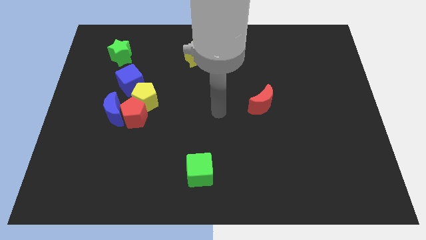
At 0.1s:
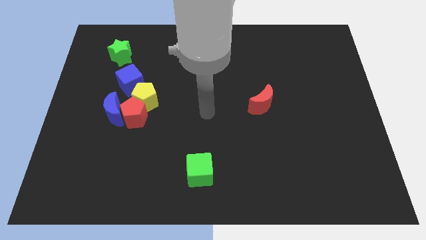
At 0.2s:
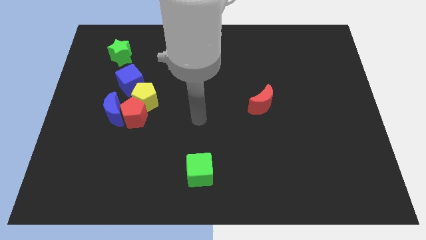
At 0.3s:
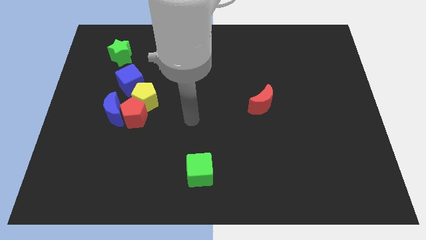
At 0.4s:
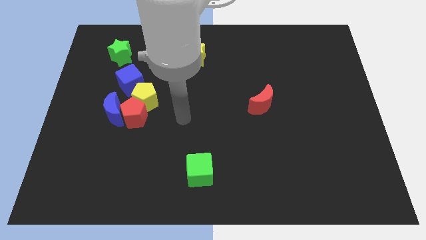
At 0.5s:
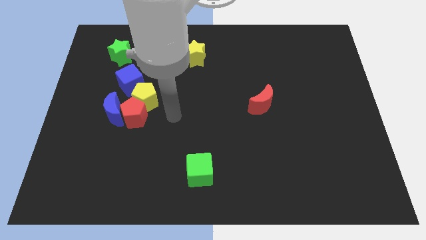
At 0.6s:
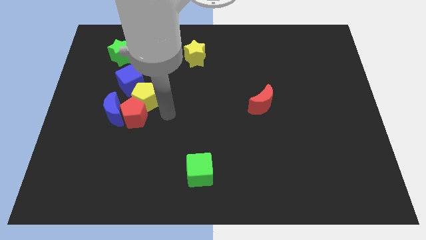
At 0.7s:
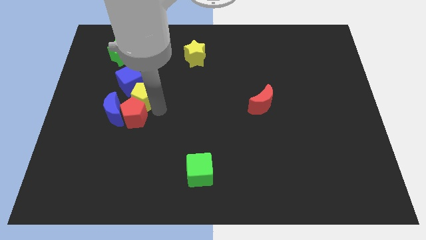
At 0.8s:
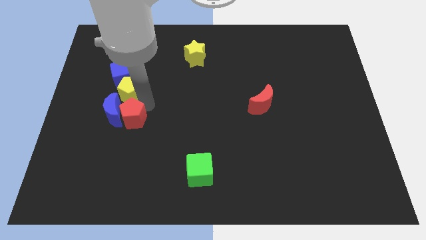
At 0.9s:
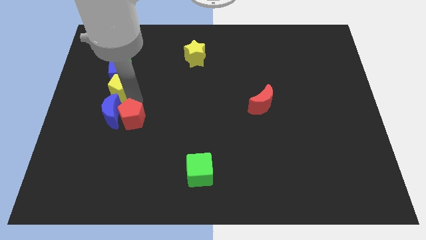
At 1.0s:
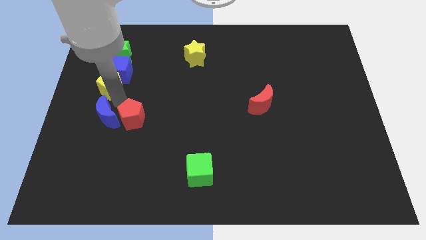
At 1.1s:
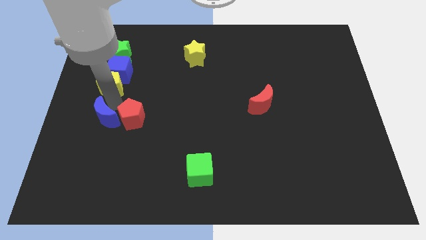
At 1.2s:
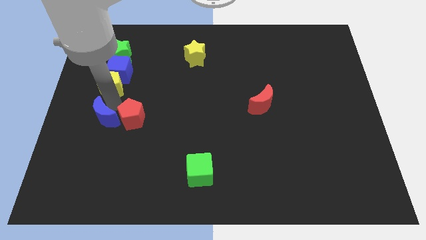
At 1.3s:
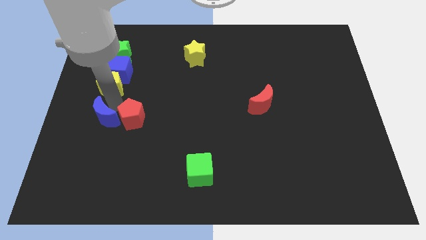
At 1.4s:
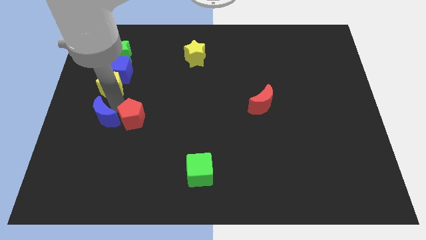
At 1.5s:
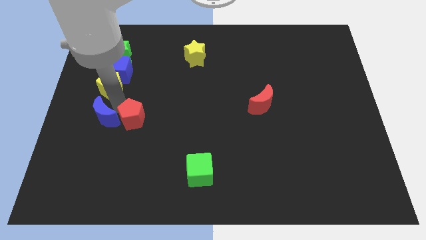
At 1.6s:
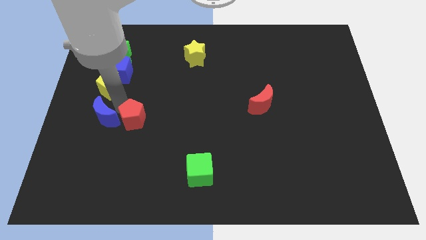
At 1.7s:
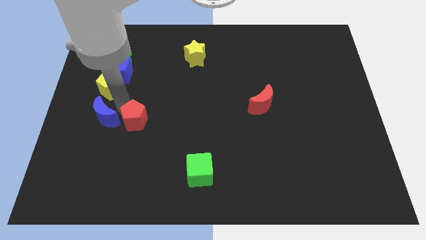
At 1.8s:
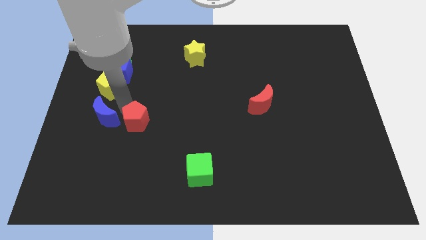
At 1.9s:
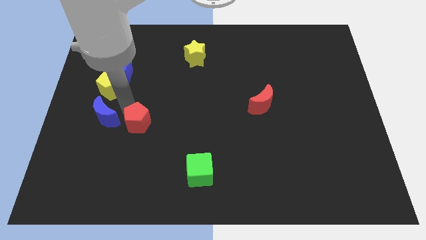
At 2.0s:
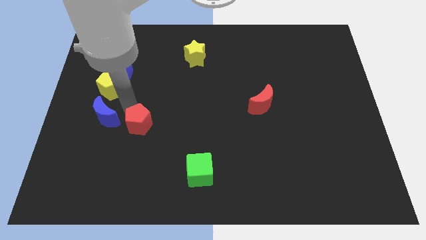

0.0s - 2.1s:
move the red pentagon away from the blue moon and yellow pentagon

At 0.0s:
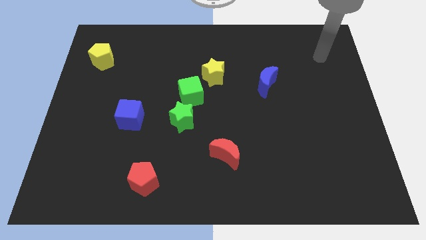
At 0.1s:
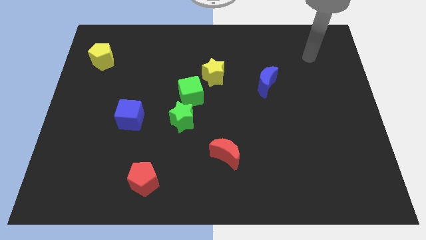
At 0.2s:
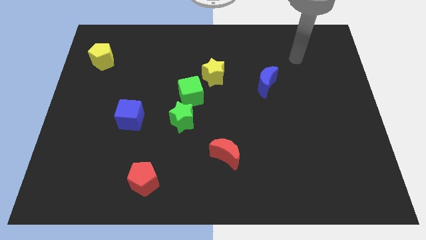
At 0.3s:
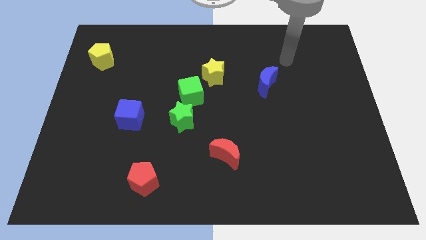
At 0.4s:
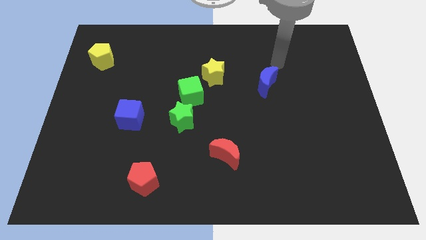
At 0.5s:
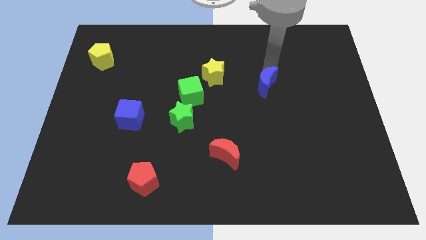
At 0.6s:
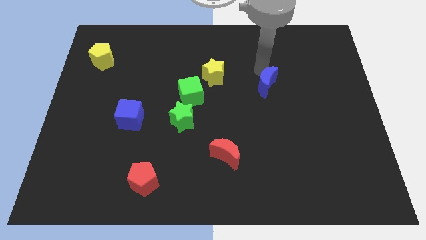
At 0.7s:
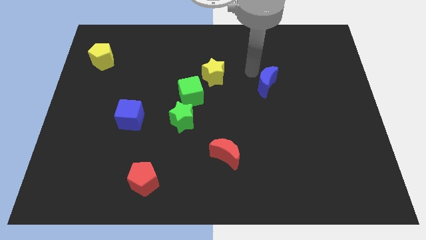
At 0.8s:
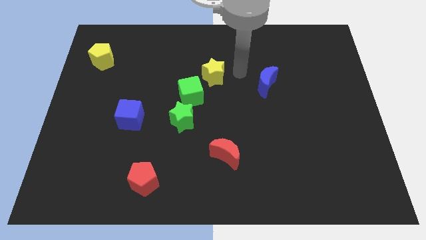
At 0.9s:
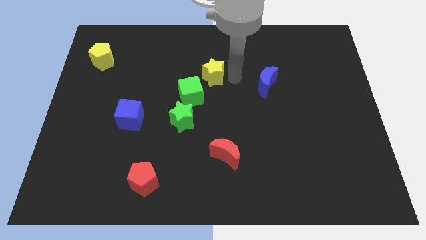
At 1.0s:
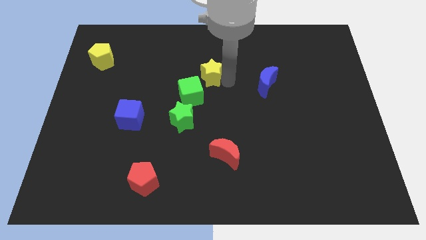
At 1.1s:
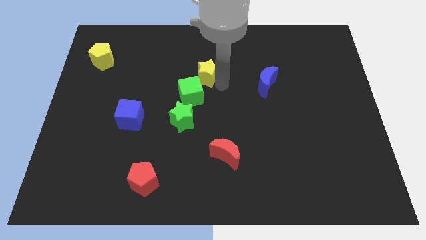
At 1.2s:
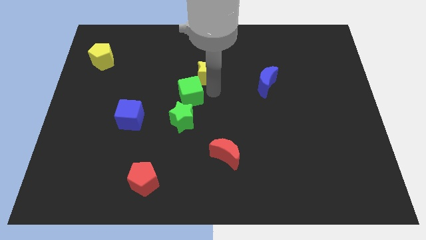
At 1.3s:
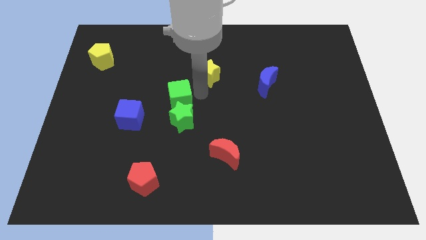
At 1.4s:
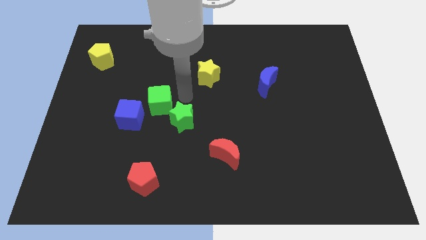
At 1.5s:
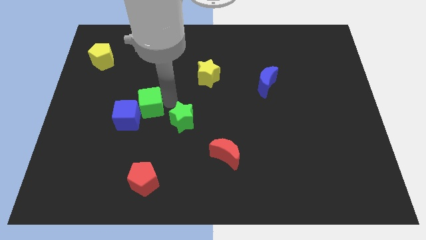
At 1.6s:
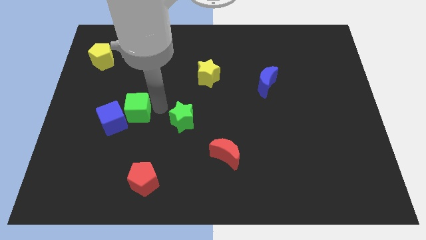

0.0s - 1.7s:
pull the green star apart from the green cube

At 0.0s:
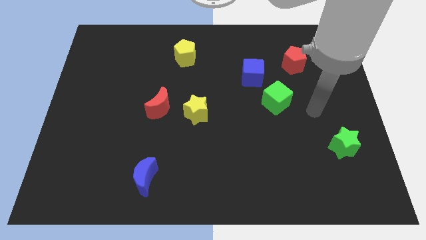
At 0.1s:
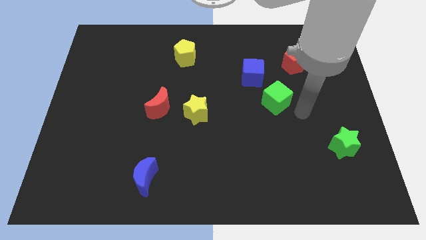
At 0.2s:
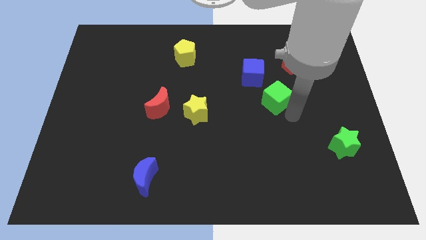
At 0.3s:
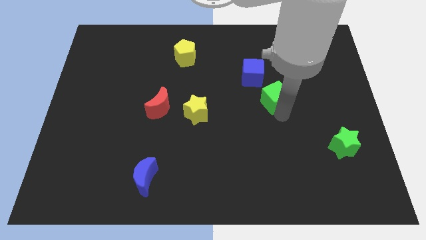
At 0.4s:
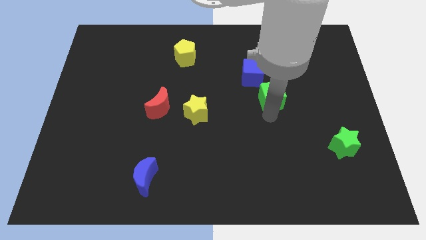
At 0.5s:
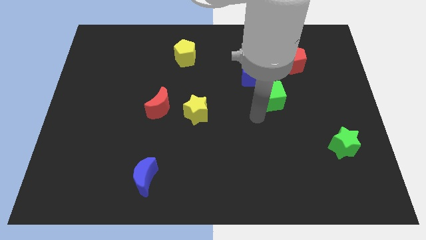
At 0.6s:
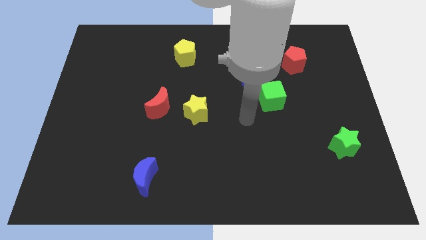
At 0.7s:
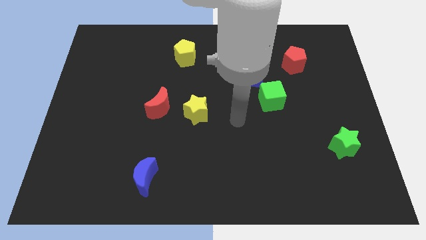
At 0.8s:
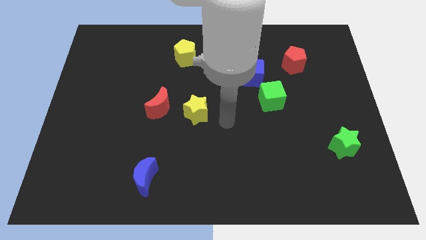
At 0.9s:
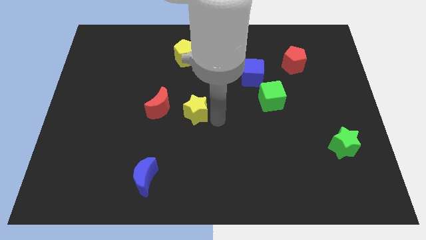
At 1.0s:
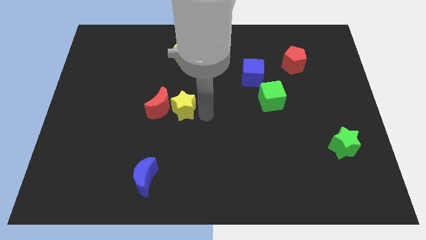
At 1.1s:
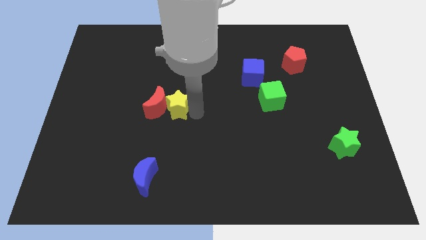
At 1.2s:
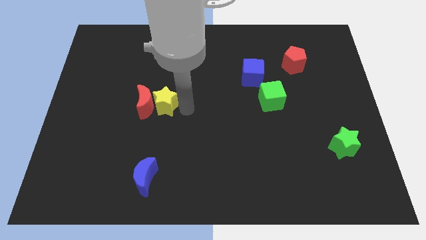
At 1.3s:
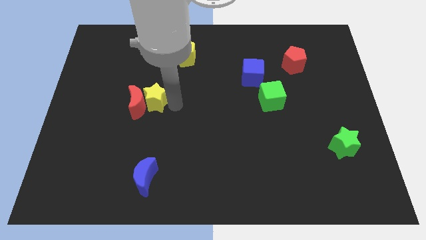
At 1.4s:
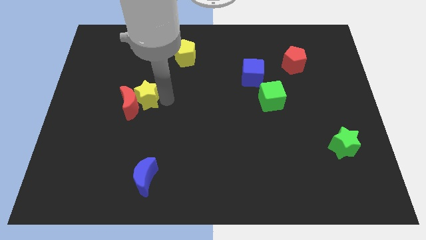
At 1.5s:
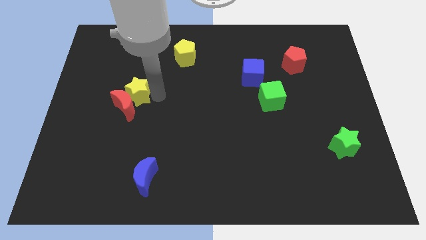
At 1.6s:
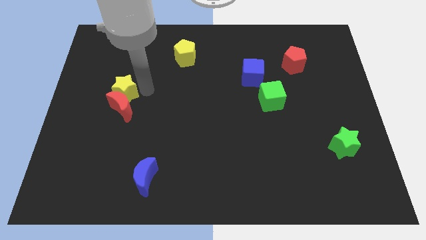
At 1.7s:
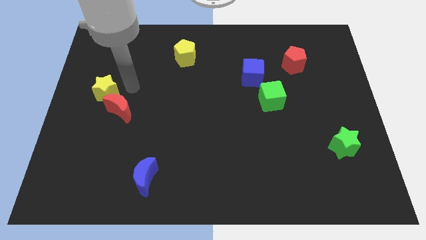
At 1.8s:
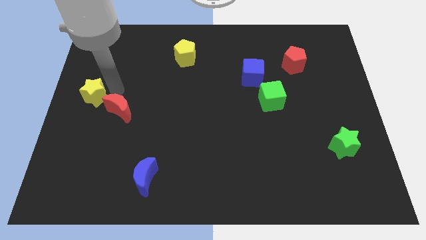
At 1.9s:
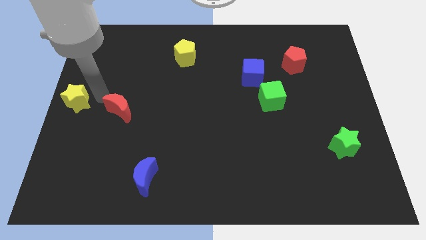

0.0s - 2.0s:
move the red moon away from the yellow star

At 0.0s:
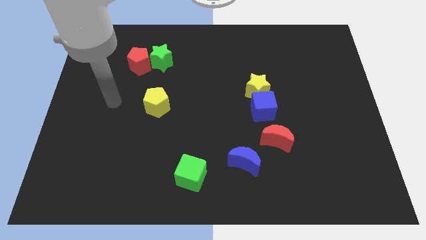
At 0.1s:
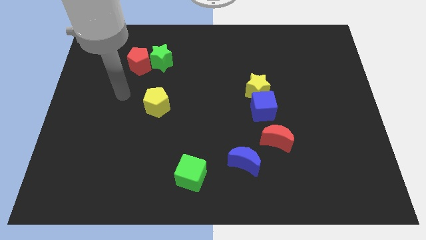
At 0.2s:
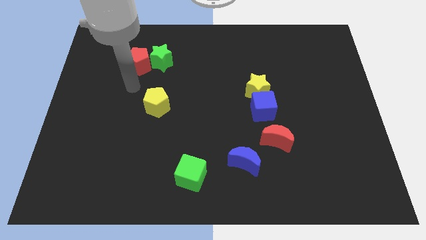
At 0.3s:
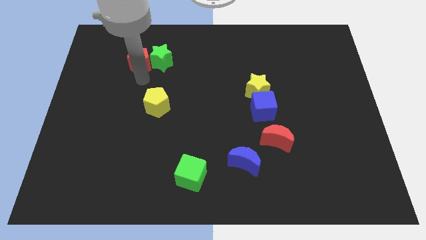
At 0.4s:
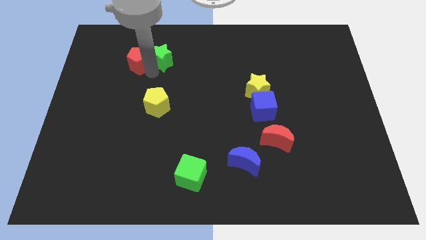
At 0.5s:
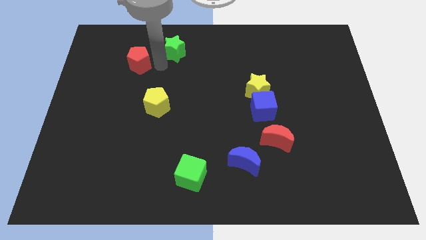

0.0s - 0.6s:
separate the red pentagon from the green star

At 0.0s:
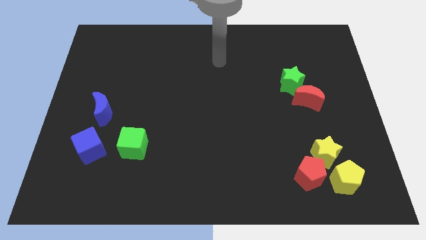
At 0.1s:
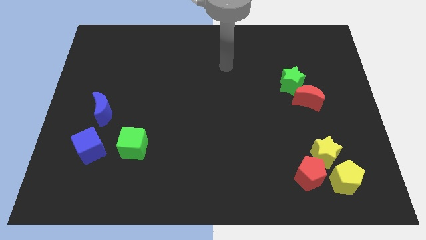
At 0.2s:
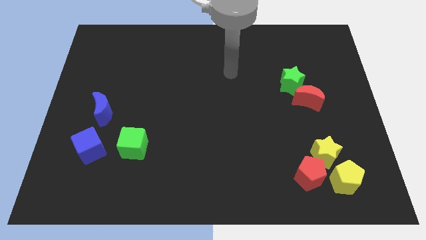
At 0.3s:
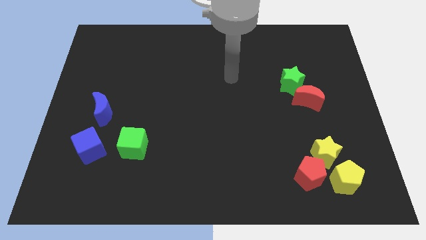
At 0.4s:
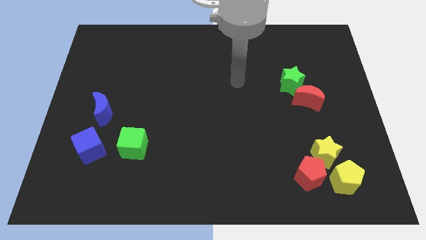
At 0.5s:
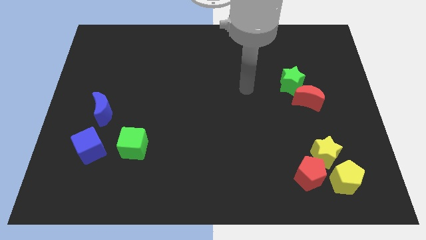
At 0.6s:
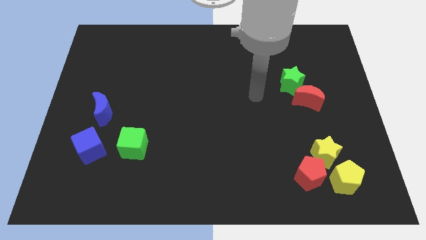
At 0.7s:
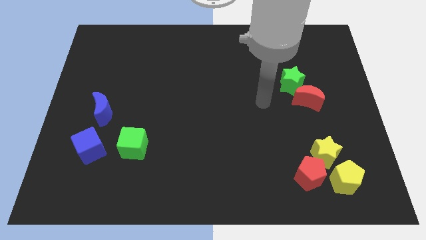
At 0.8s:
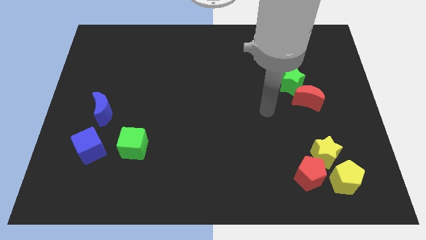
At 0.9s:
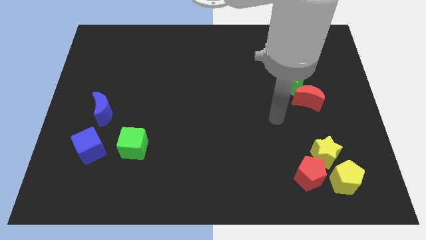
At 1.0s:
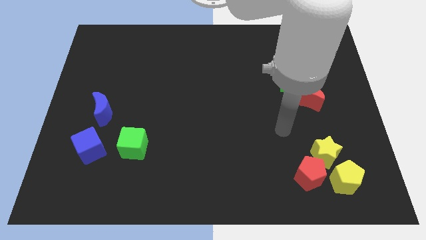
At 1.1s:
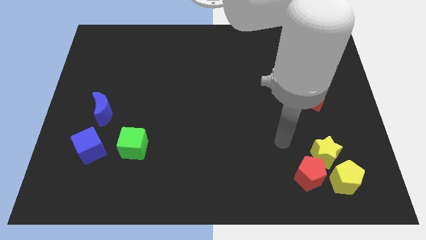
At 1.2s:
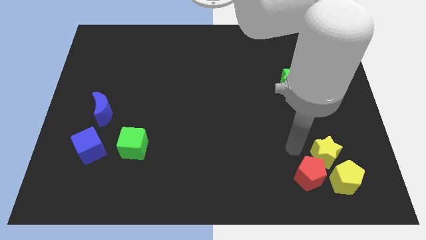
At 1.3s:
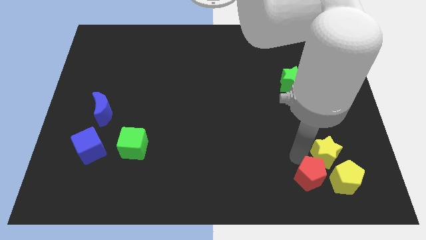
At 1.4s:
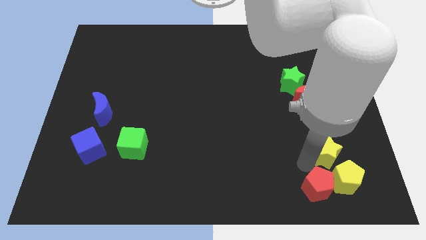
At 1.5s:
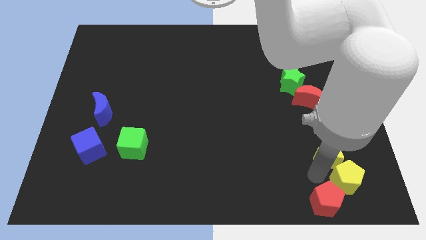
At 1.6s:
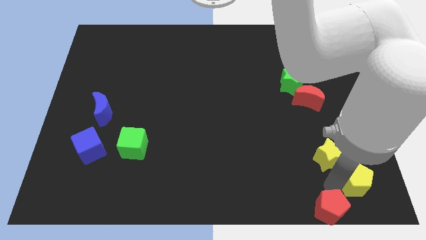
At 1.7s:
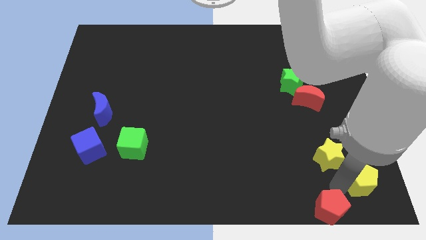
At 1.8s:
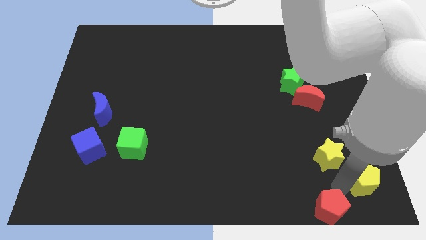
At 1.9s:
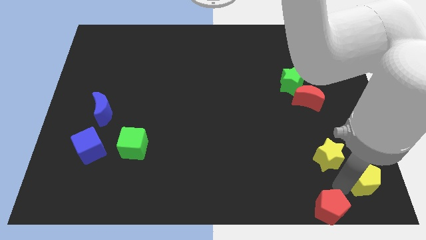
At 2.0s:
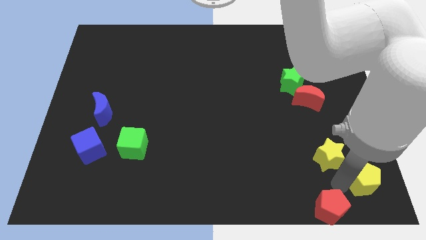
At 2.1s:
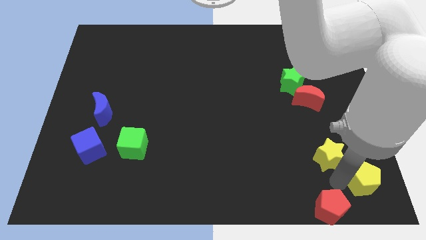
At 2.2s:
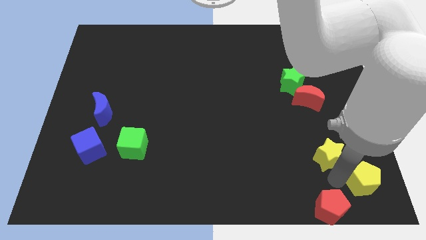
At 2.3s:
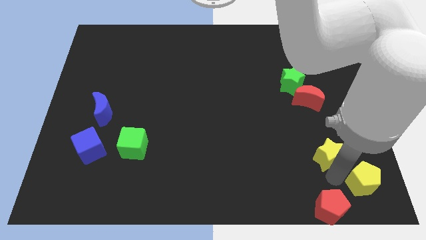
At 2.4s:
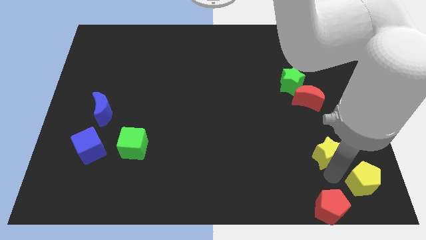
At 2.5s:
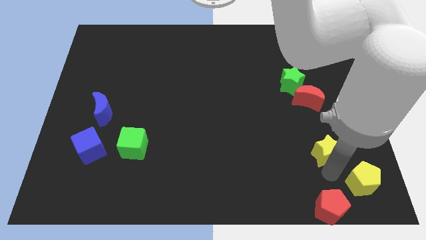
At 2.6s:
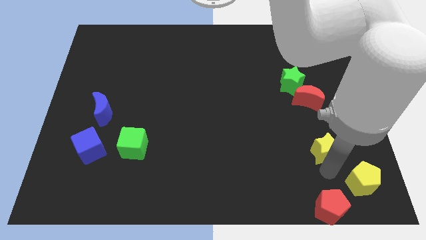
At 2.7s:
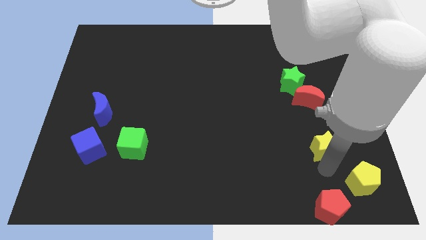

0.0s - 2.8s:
separate the yellow star from the red pentagon and yellow pentagon
